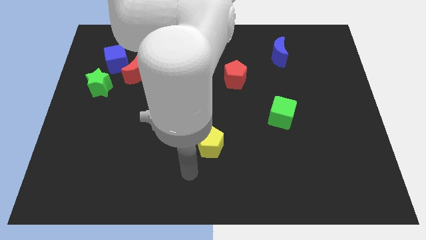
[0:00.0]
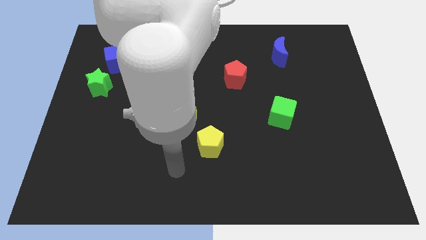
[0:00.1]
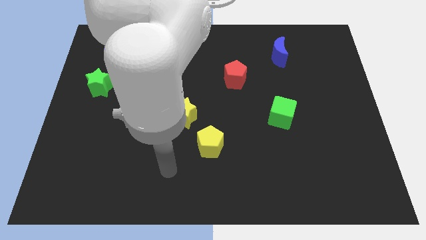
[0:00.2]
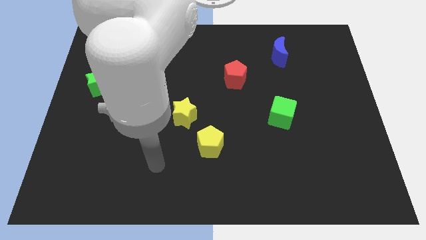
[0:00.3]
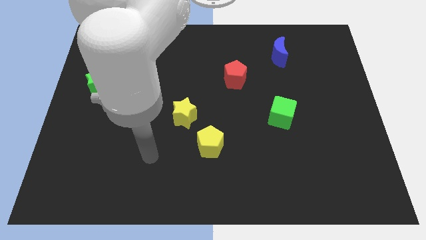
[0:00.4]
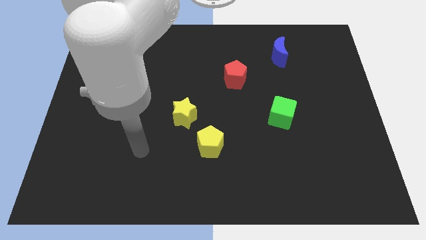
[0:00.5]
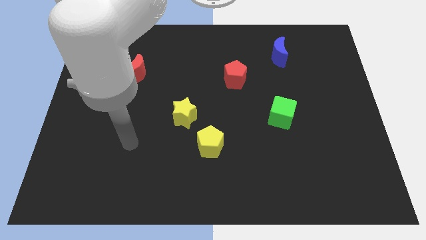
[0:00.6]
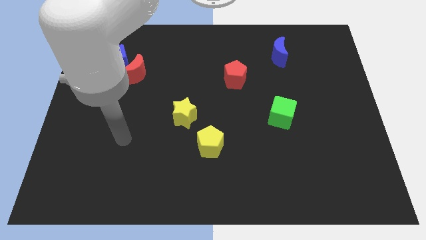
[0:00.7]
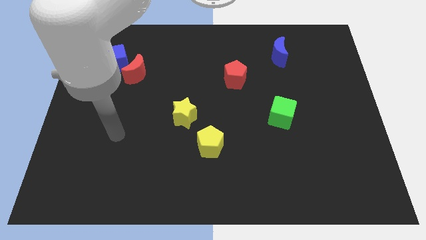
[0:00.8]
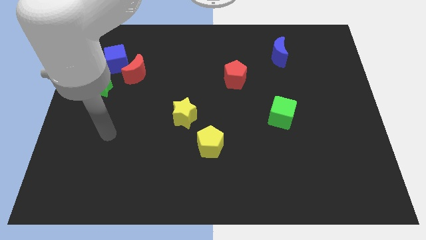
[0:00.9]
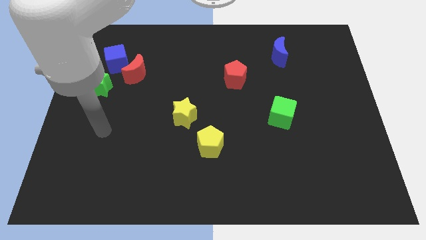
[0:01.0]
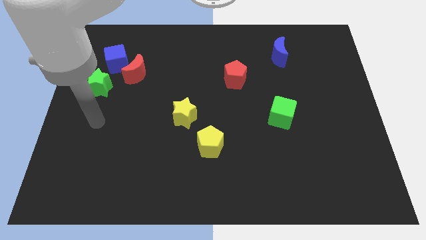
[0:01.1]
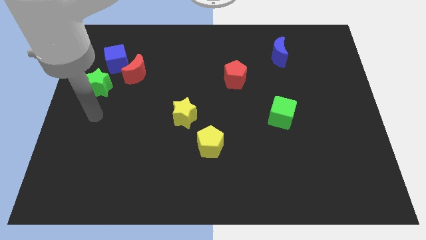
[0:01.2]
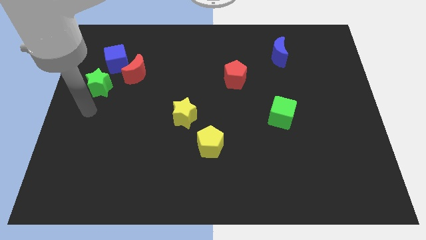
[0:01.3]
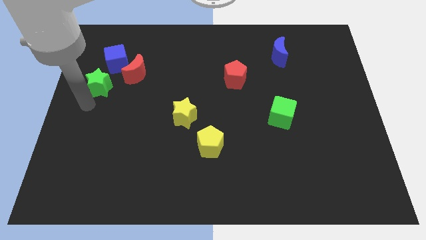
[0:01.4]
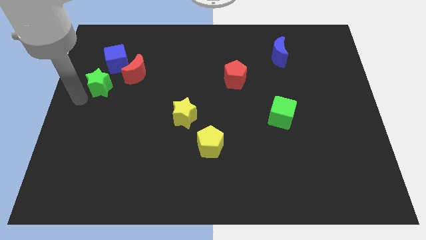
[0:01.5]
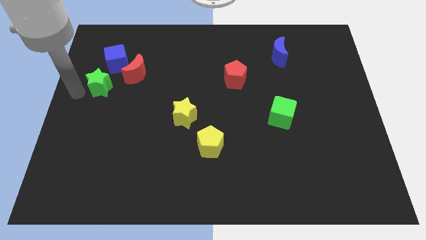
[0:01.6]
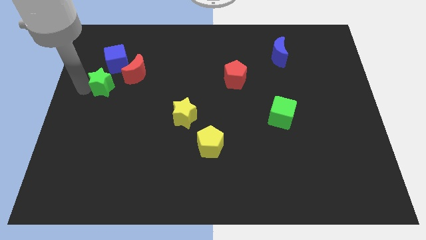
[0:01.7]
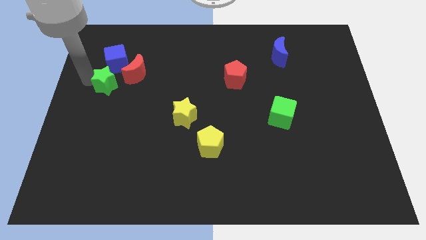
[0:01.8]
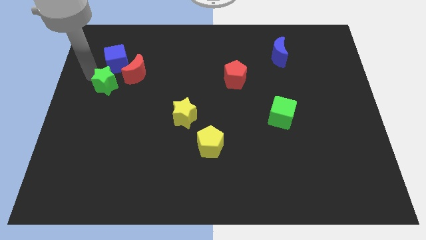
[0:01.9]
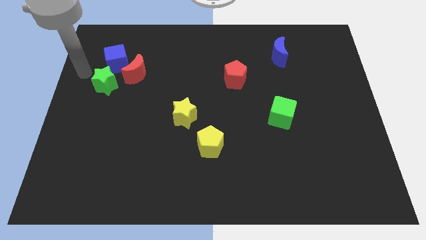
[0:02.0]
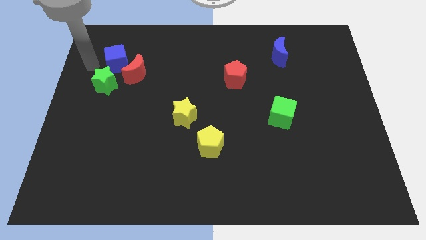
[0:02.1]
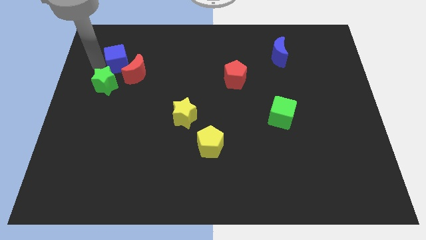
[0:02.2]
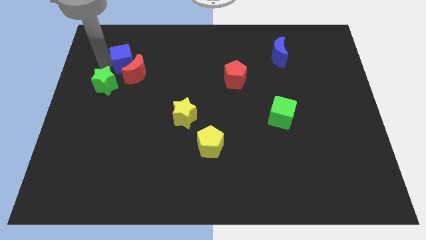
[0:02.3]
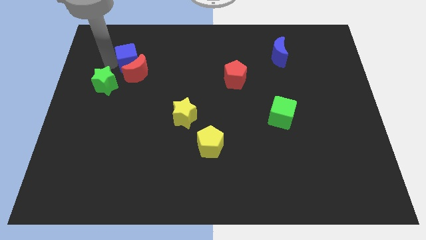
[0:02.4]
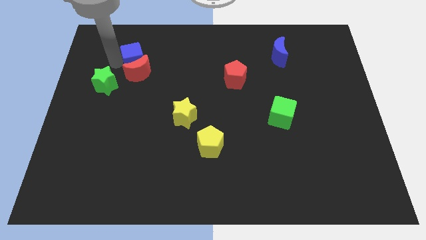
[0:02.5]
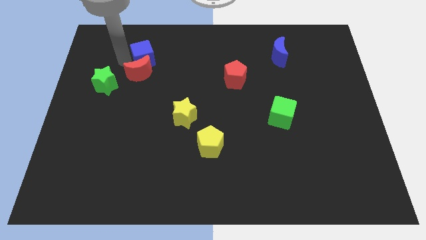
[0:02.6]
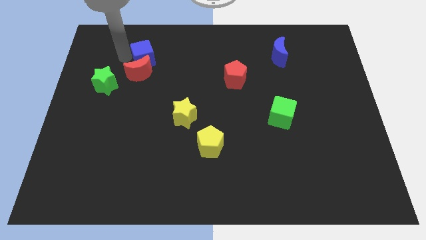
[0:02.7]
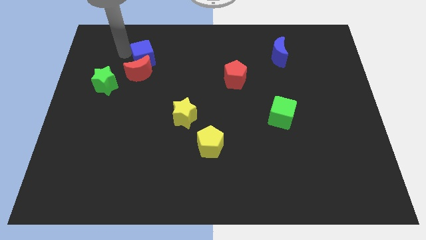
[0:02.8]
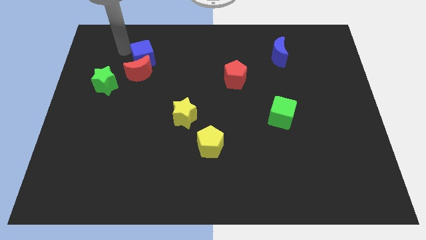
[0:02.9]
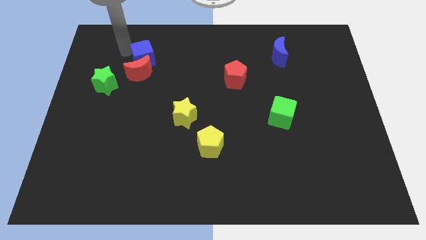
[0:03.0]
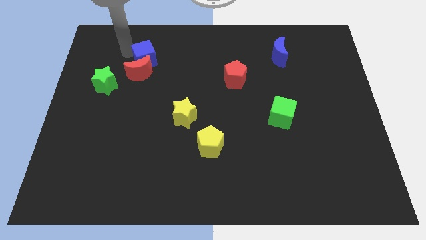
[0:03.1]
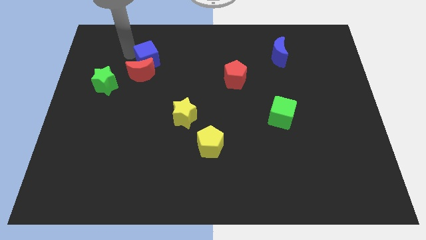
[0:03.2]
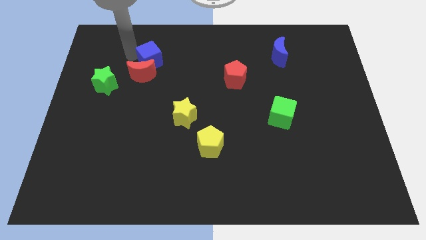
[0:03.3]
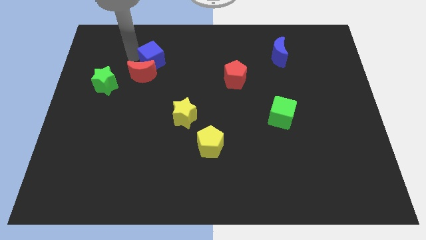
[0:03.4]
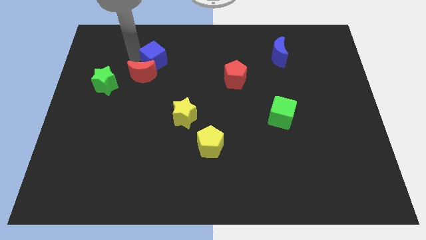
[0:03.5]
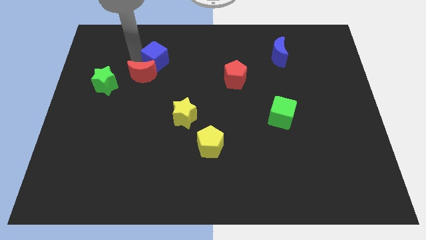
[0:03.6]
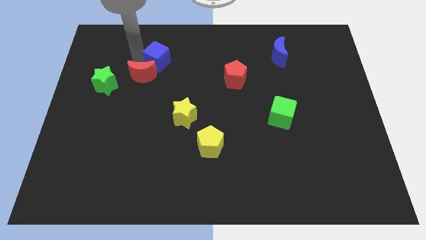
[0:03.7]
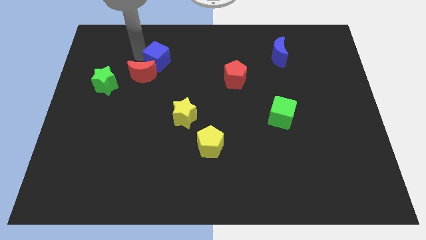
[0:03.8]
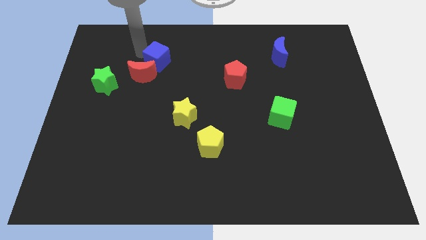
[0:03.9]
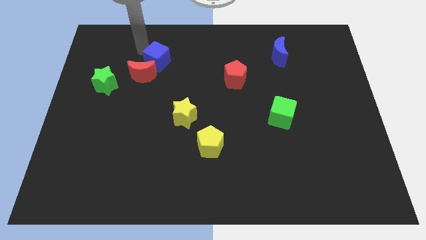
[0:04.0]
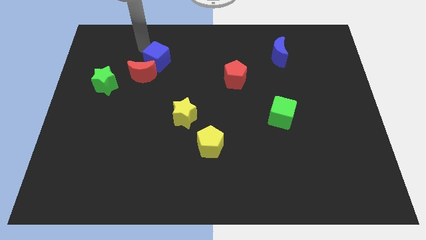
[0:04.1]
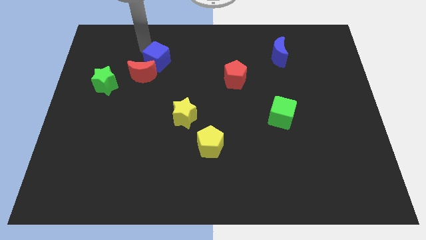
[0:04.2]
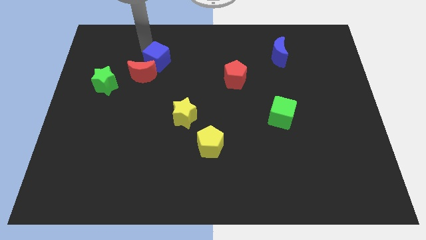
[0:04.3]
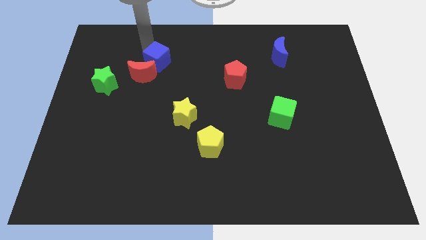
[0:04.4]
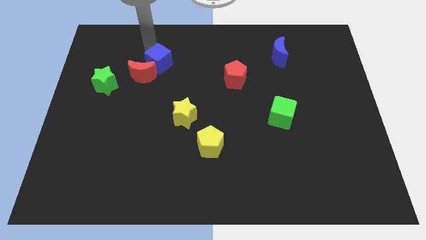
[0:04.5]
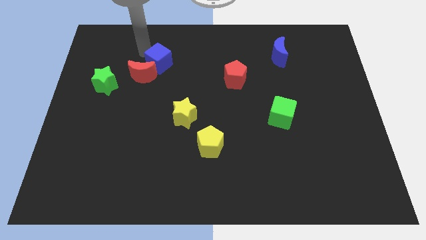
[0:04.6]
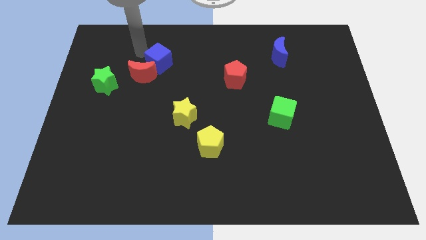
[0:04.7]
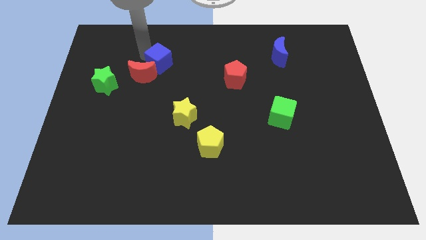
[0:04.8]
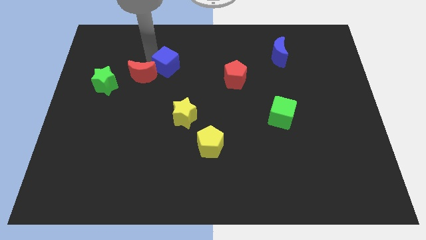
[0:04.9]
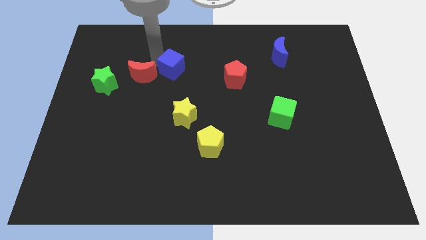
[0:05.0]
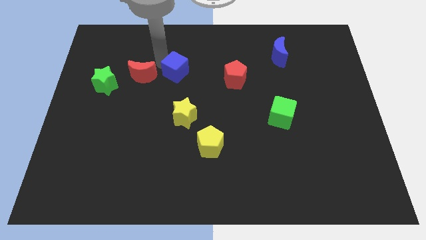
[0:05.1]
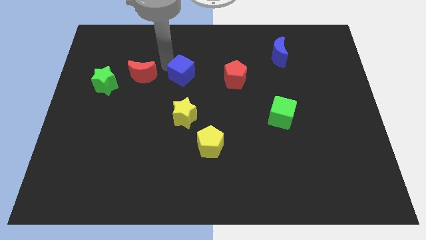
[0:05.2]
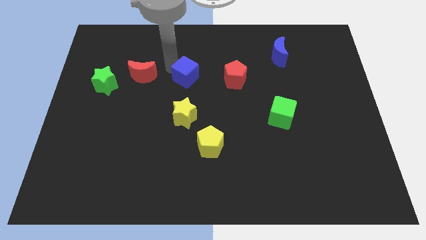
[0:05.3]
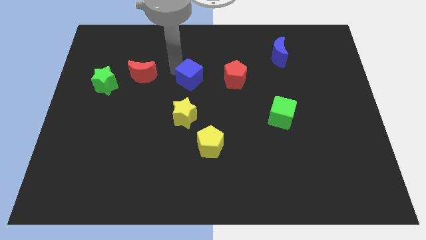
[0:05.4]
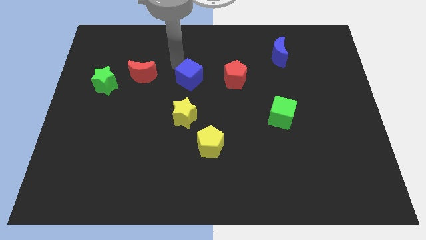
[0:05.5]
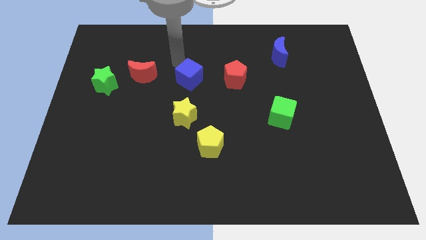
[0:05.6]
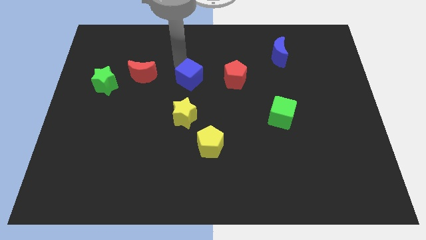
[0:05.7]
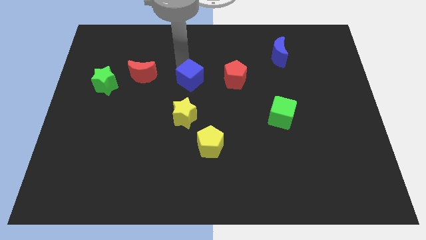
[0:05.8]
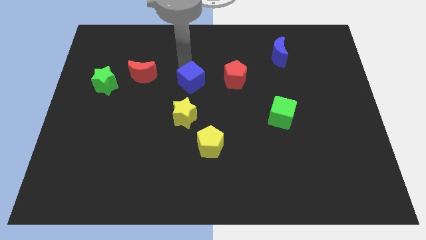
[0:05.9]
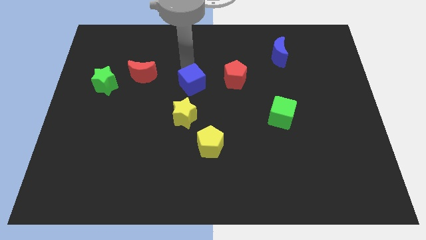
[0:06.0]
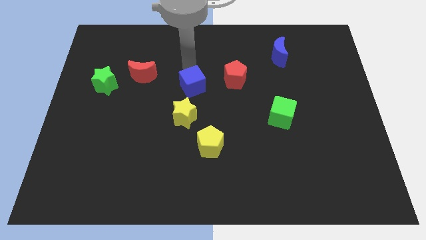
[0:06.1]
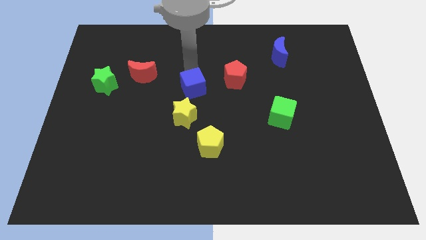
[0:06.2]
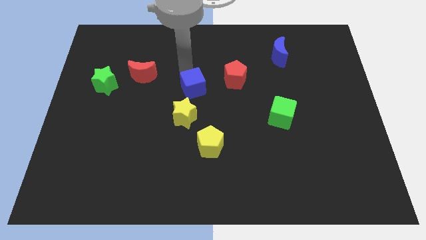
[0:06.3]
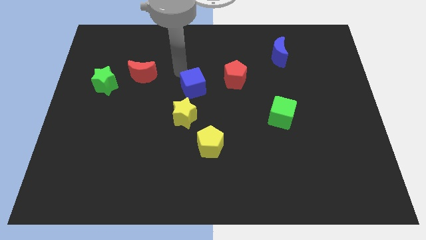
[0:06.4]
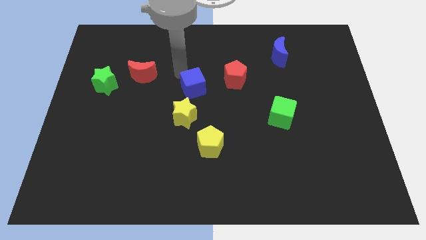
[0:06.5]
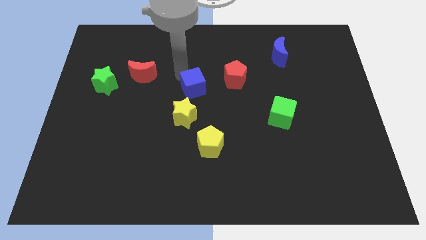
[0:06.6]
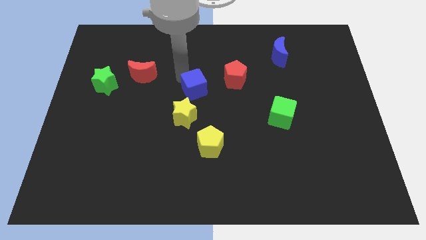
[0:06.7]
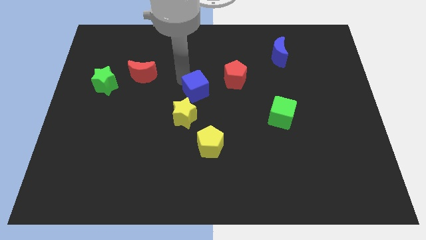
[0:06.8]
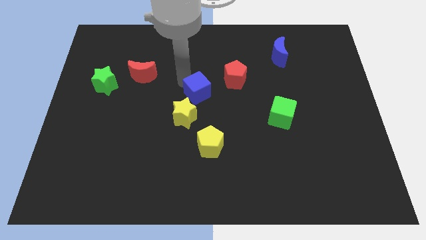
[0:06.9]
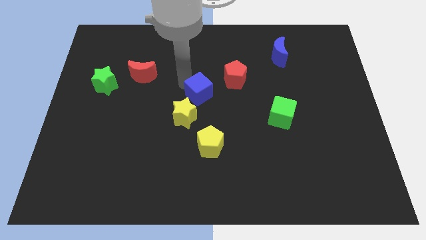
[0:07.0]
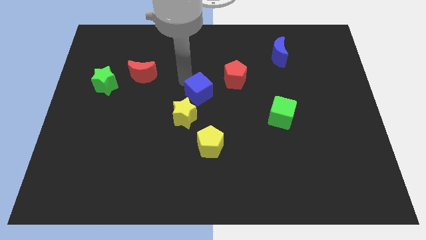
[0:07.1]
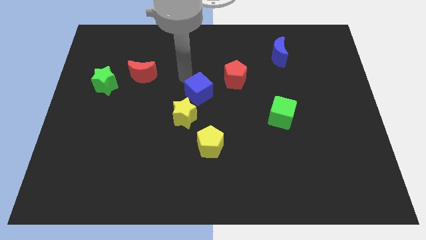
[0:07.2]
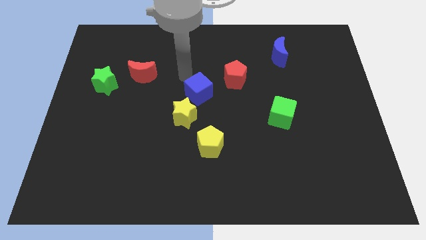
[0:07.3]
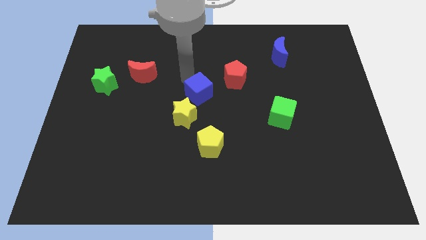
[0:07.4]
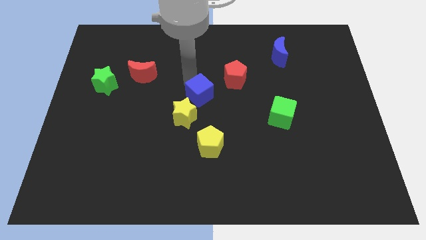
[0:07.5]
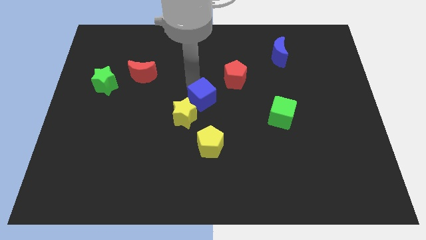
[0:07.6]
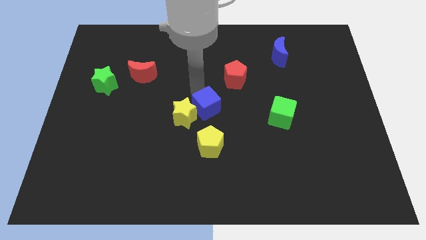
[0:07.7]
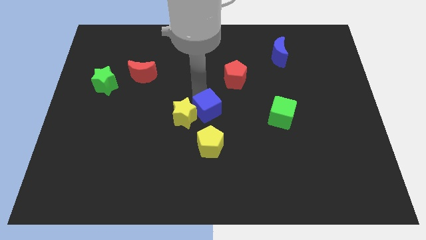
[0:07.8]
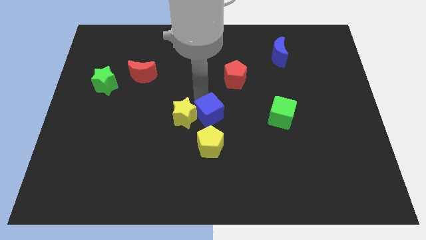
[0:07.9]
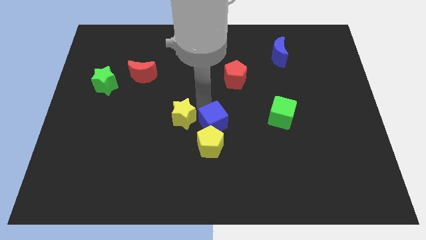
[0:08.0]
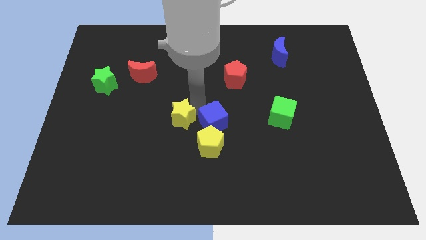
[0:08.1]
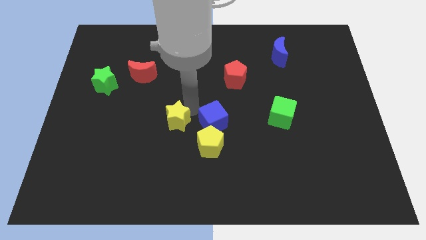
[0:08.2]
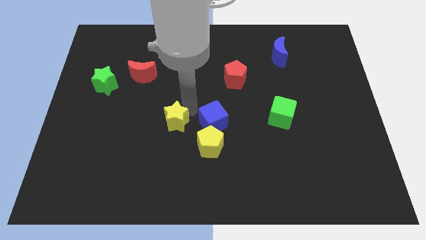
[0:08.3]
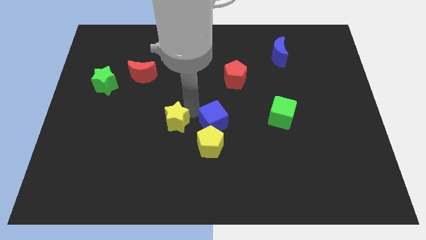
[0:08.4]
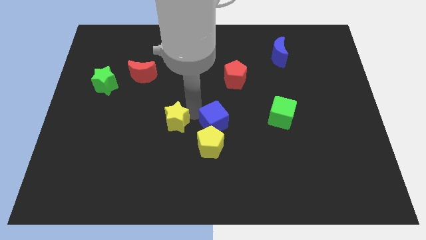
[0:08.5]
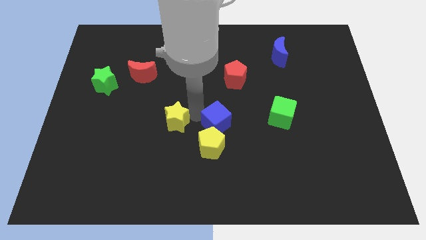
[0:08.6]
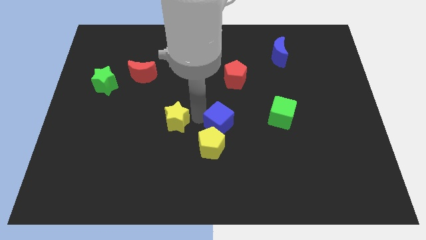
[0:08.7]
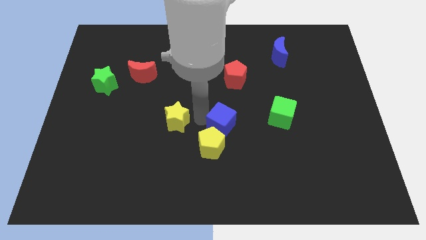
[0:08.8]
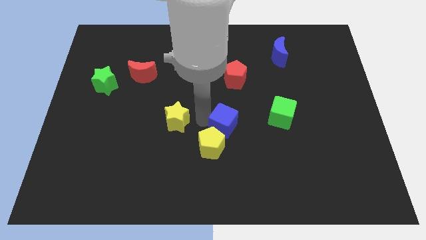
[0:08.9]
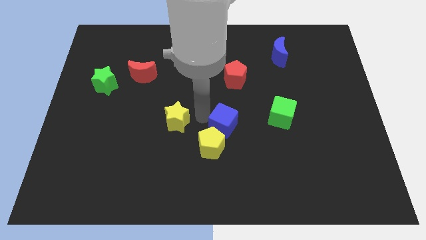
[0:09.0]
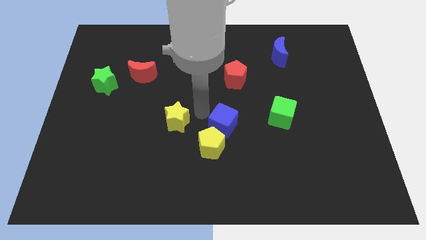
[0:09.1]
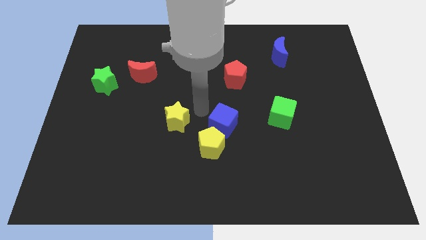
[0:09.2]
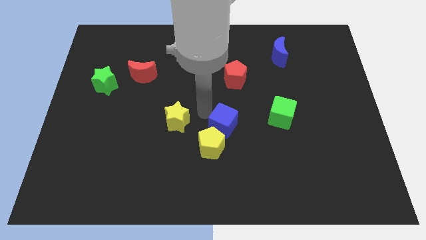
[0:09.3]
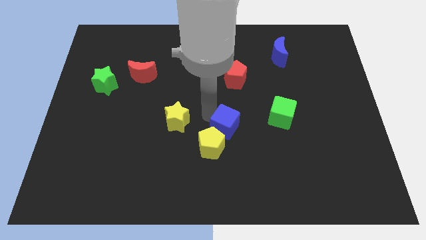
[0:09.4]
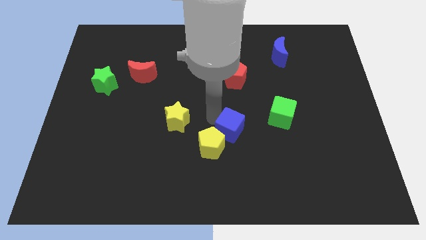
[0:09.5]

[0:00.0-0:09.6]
slide the blue cube right of the yellow pentagon
